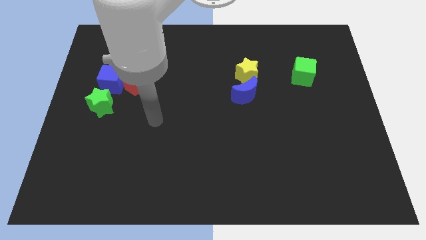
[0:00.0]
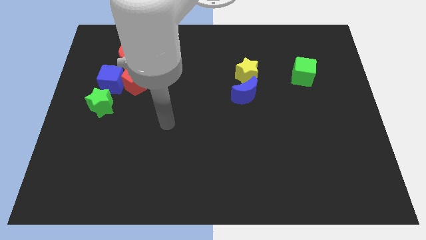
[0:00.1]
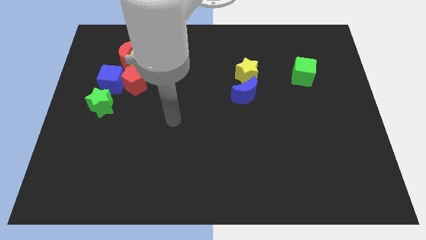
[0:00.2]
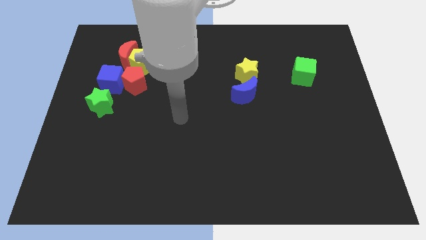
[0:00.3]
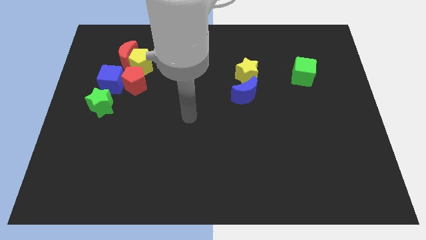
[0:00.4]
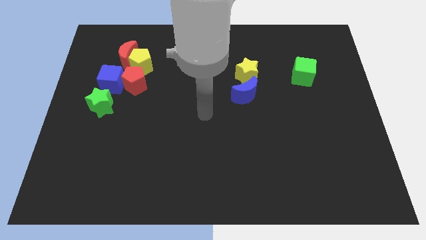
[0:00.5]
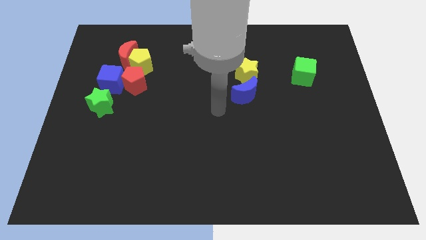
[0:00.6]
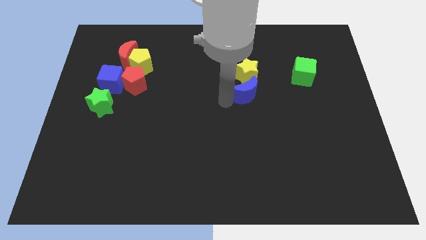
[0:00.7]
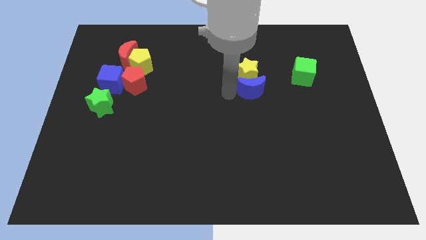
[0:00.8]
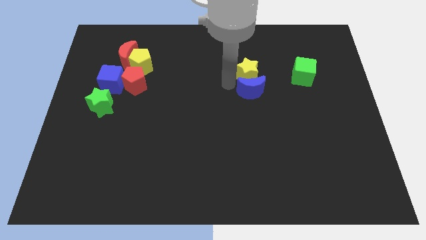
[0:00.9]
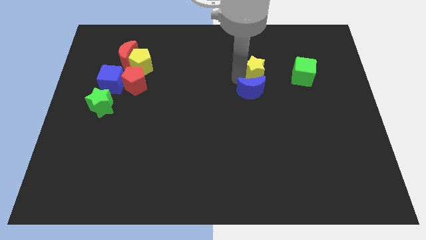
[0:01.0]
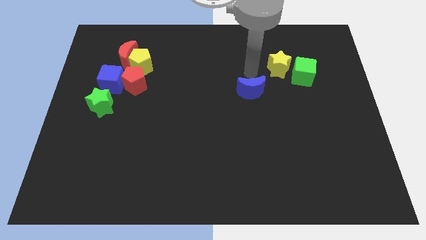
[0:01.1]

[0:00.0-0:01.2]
separate the blue moon from the yellow star

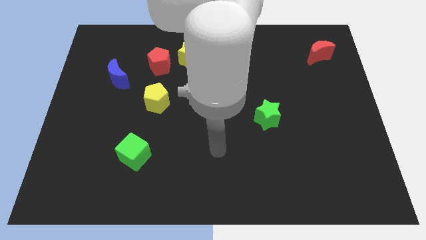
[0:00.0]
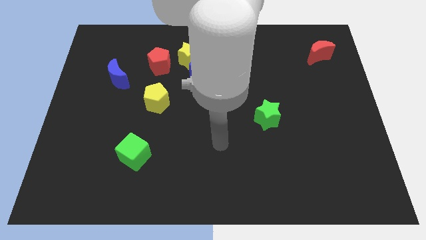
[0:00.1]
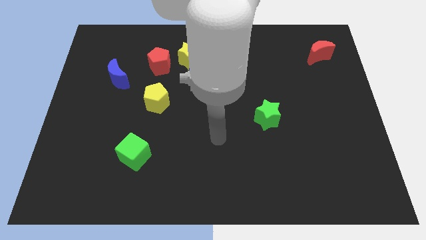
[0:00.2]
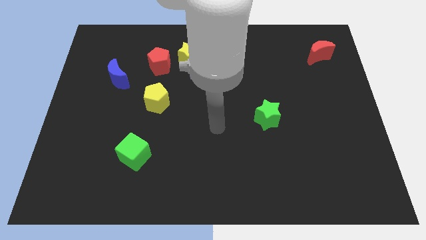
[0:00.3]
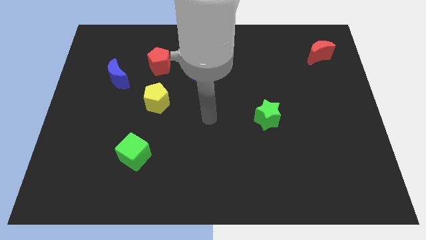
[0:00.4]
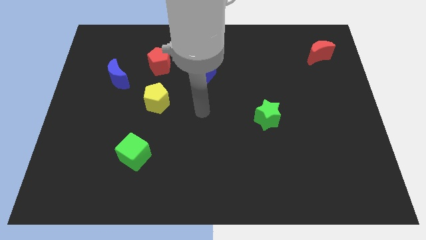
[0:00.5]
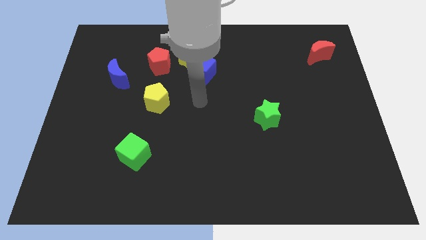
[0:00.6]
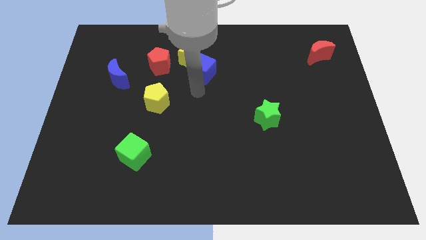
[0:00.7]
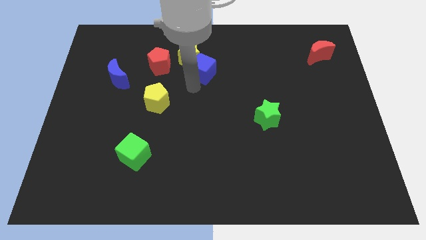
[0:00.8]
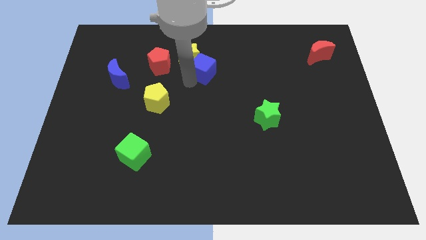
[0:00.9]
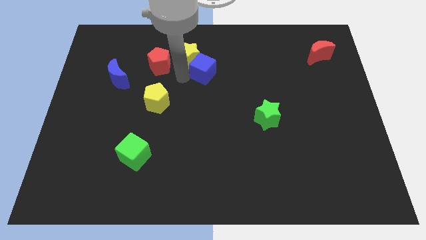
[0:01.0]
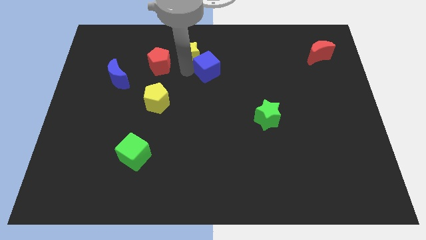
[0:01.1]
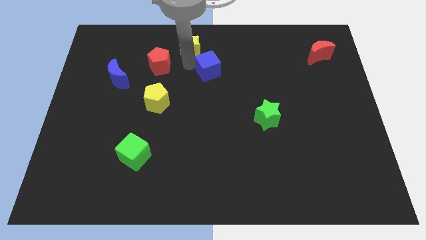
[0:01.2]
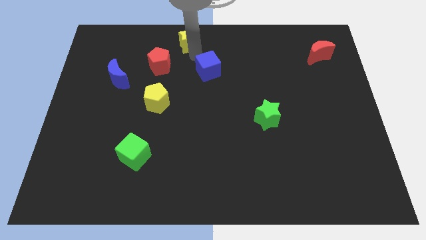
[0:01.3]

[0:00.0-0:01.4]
move the blue cube away from the yellow star

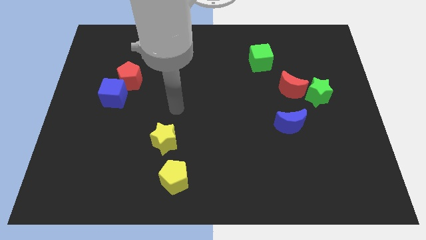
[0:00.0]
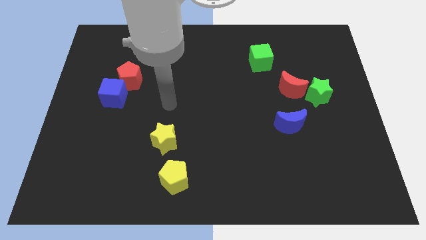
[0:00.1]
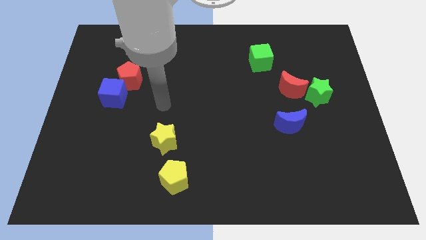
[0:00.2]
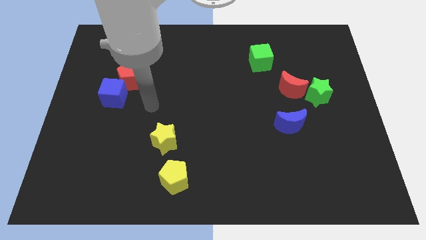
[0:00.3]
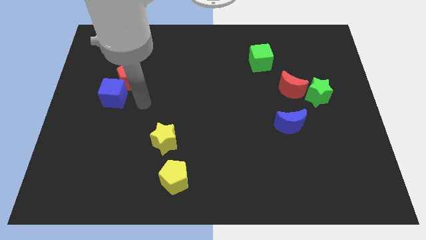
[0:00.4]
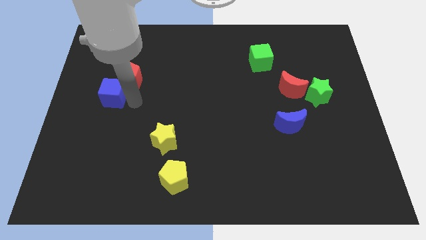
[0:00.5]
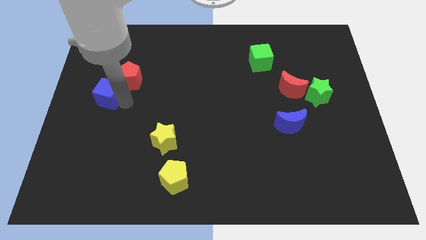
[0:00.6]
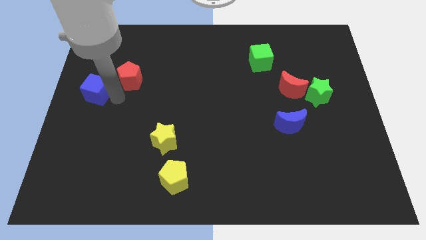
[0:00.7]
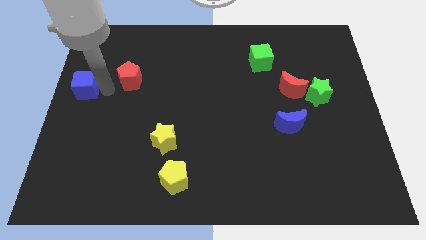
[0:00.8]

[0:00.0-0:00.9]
move the red pentagon away from the blue cube

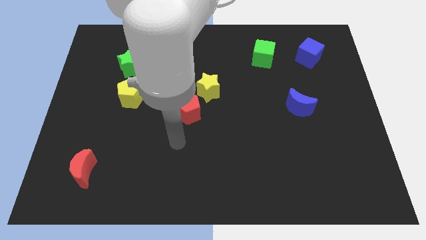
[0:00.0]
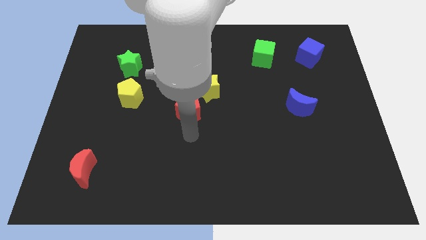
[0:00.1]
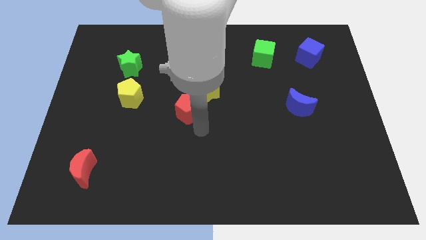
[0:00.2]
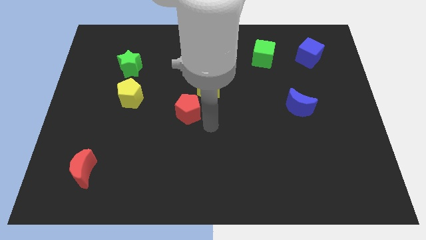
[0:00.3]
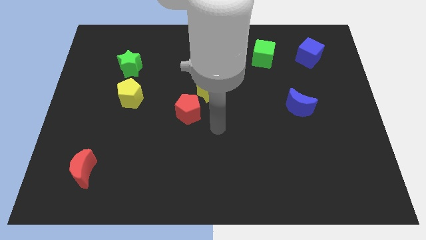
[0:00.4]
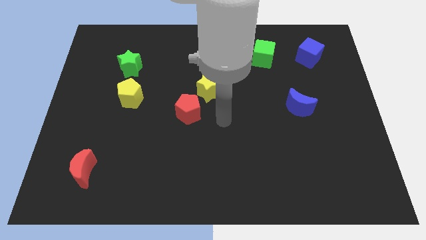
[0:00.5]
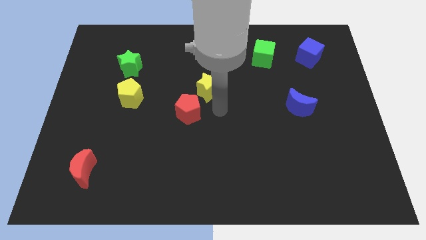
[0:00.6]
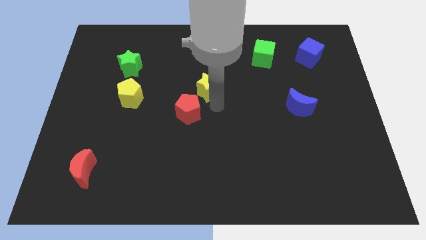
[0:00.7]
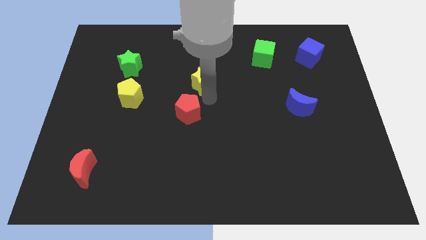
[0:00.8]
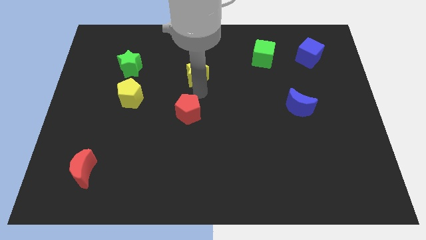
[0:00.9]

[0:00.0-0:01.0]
separate the red pentagon from the yellow star

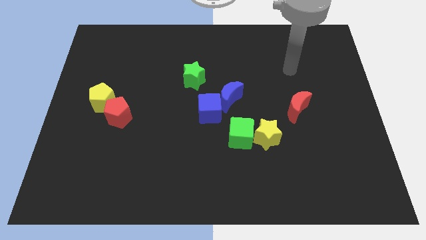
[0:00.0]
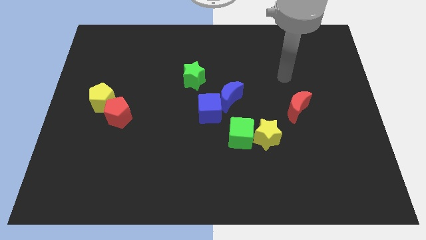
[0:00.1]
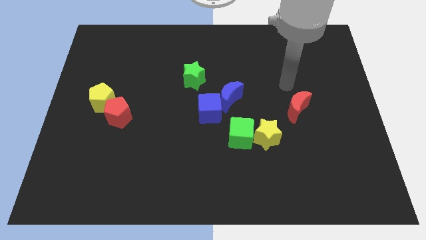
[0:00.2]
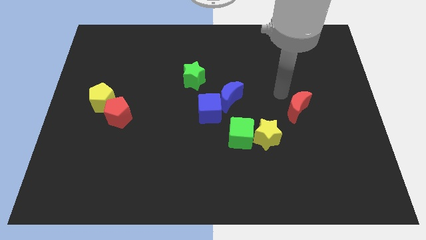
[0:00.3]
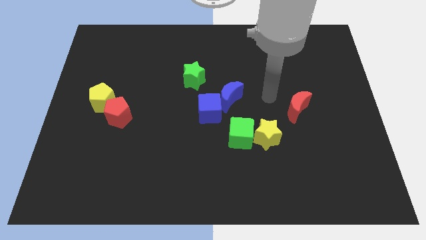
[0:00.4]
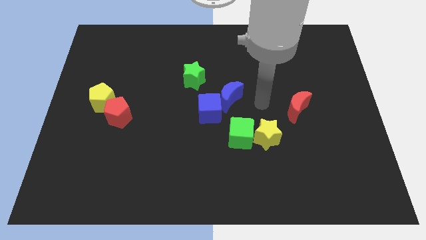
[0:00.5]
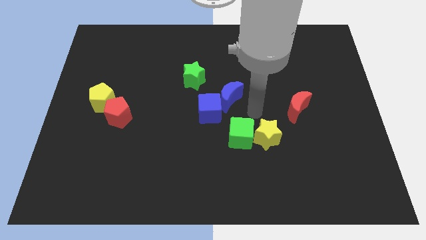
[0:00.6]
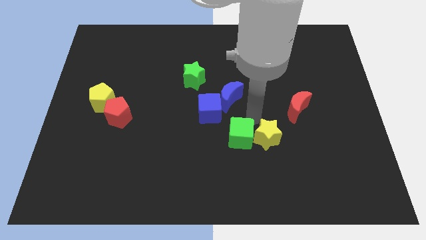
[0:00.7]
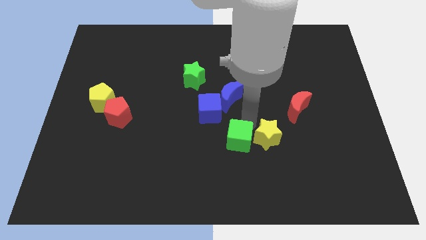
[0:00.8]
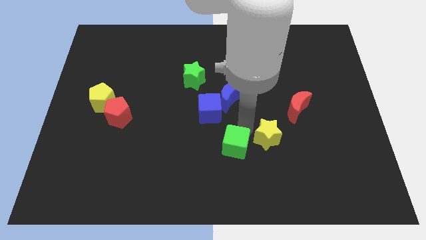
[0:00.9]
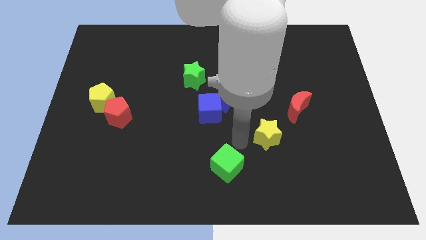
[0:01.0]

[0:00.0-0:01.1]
separate the yellow star from the green cube

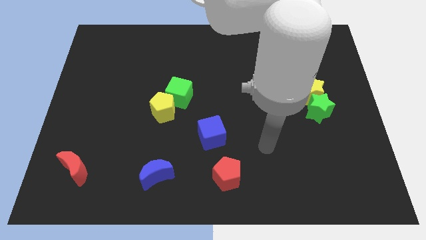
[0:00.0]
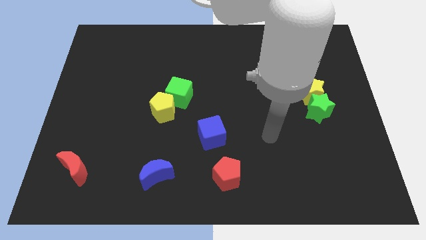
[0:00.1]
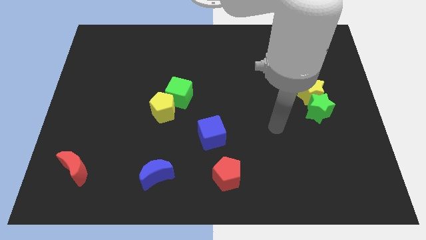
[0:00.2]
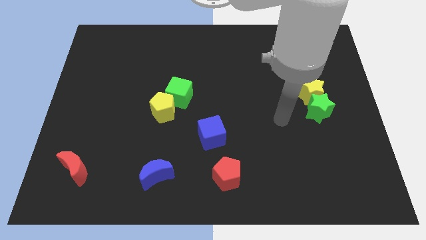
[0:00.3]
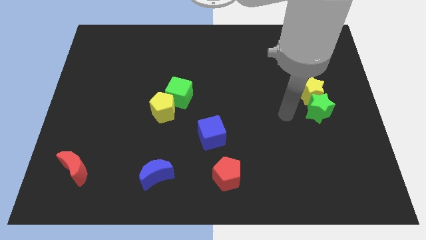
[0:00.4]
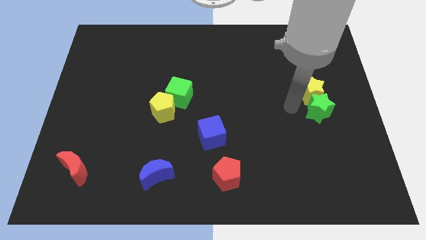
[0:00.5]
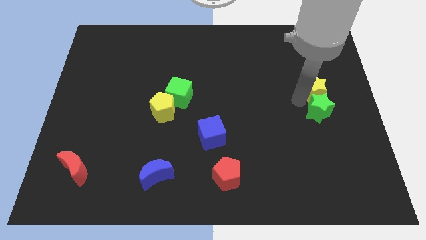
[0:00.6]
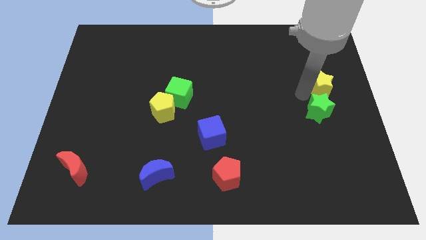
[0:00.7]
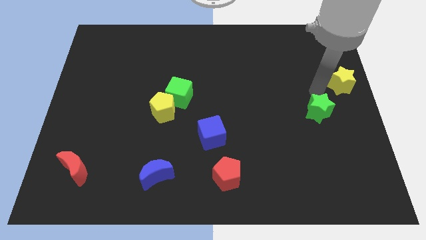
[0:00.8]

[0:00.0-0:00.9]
pull the green star apart from the yellow star

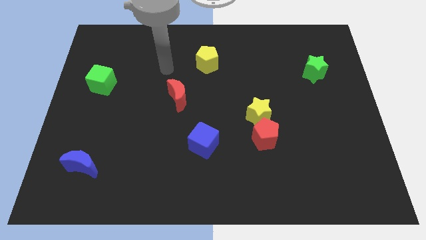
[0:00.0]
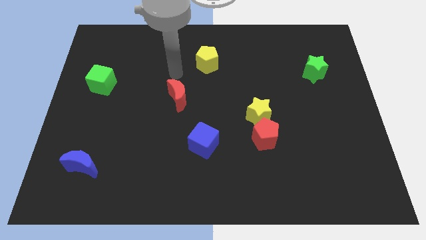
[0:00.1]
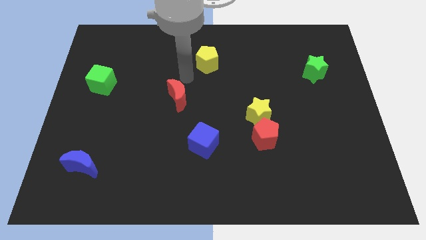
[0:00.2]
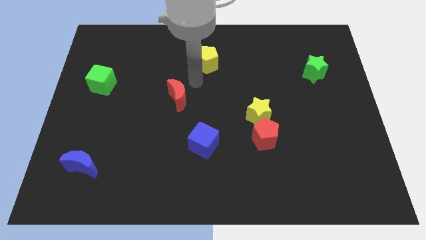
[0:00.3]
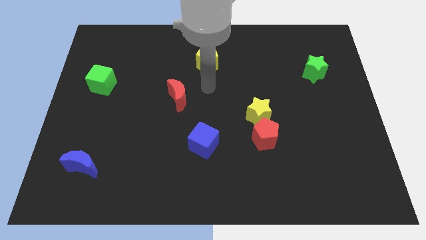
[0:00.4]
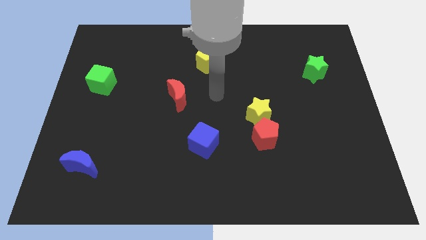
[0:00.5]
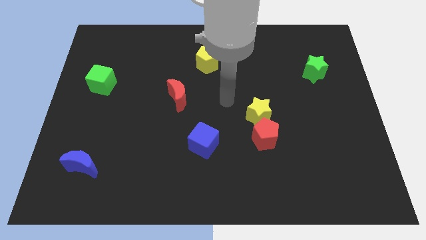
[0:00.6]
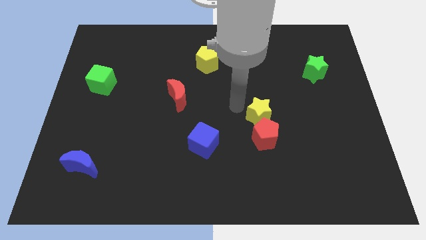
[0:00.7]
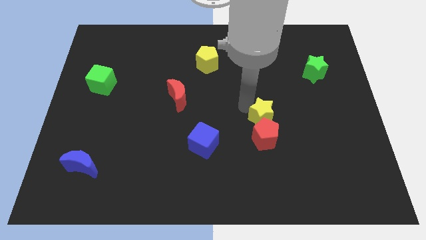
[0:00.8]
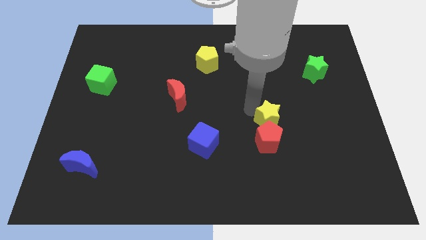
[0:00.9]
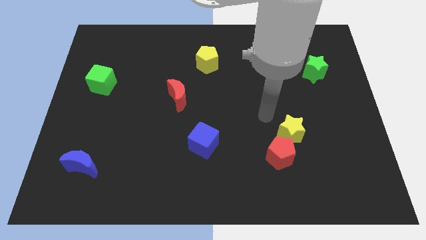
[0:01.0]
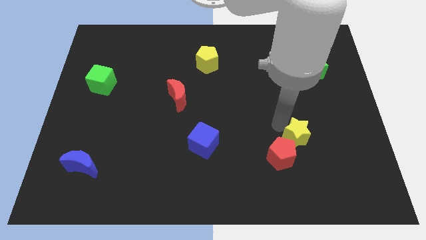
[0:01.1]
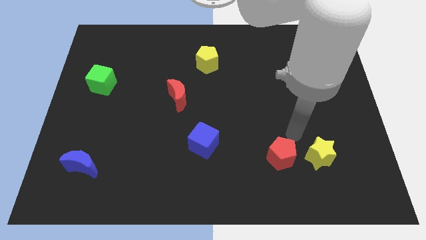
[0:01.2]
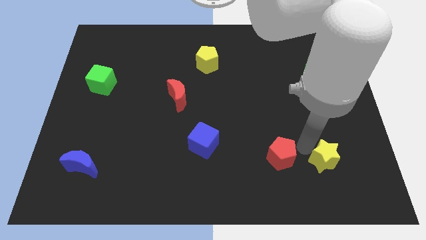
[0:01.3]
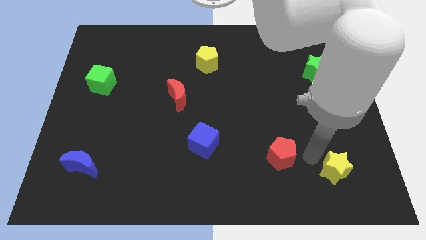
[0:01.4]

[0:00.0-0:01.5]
pull the red pentagon apart from the yellow star

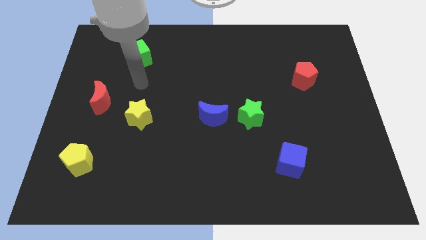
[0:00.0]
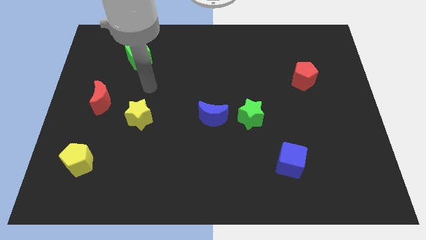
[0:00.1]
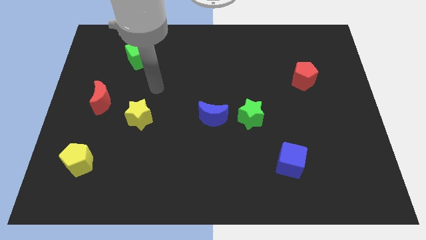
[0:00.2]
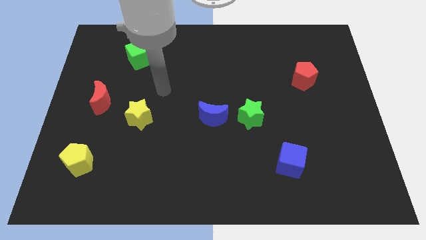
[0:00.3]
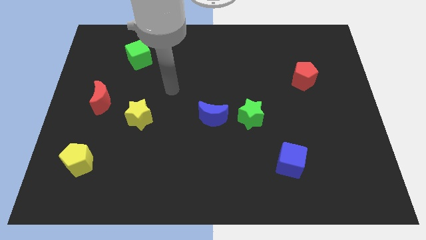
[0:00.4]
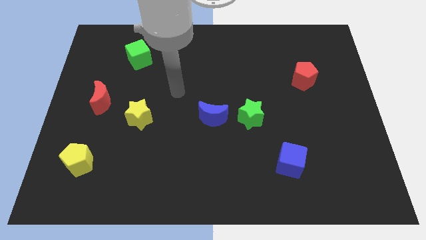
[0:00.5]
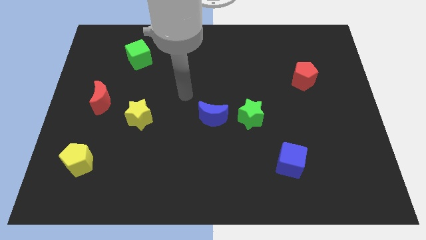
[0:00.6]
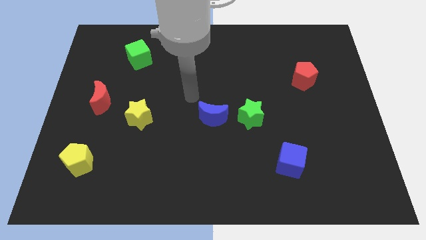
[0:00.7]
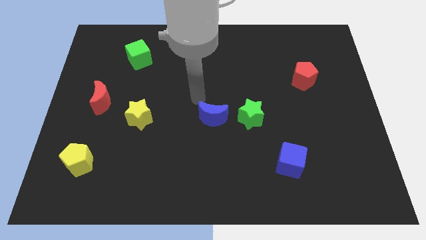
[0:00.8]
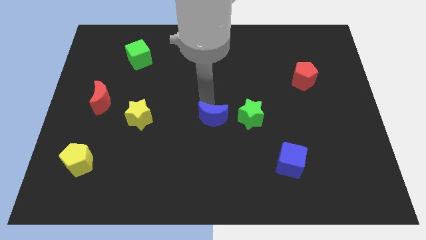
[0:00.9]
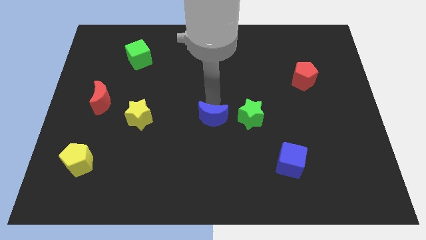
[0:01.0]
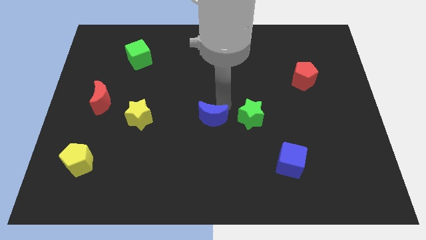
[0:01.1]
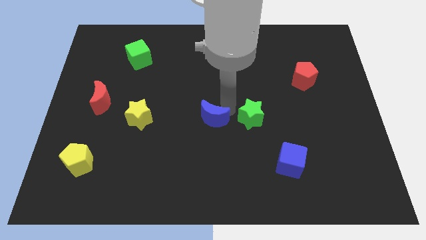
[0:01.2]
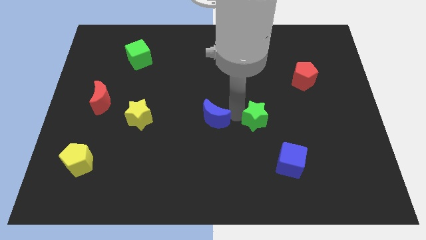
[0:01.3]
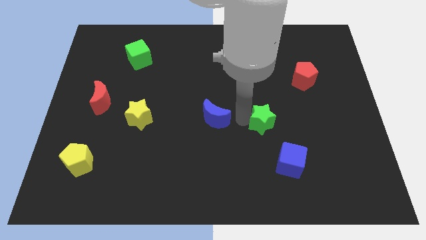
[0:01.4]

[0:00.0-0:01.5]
move the blue moon away from the green star
